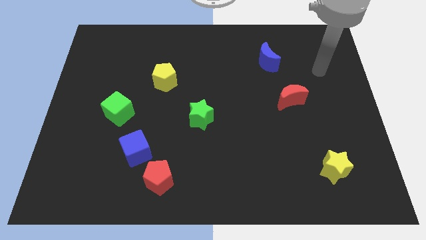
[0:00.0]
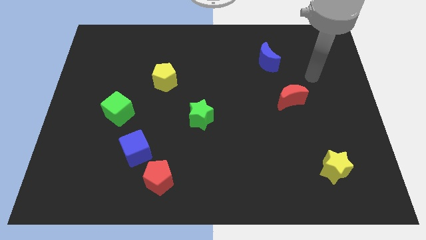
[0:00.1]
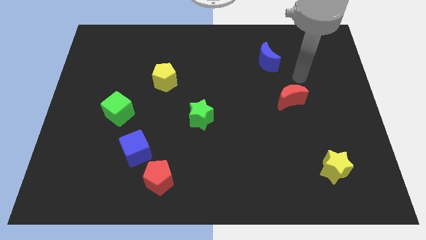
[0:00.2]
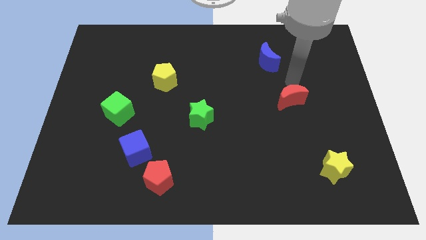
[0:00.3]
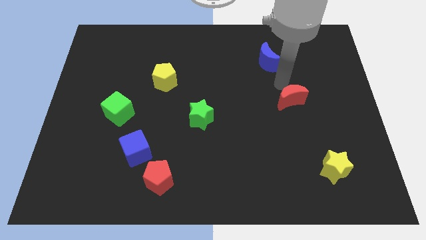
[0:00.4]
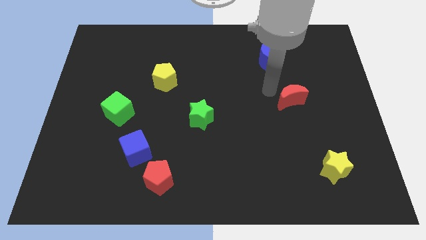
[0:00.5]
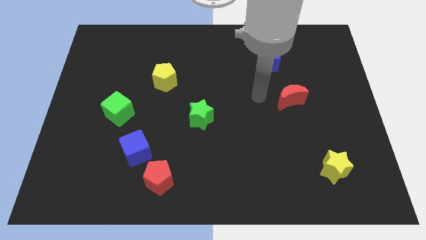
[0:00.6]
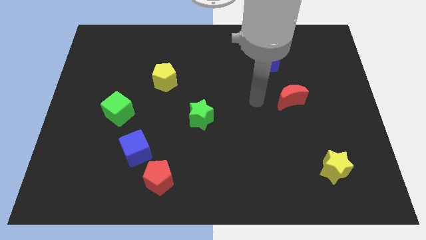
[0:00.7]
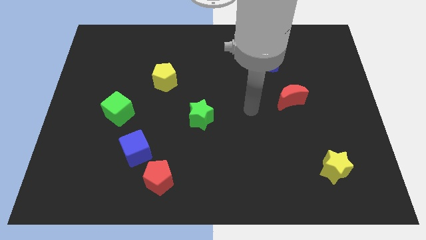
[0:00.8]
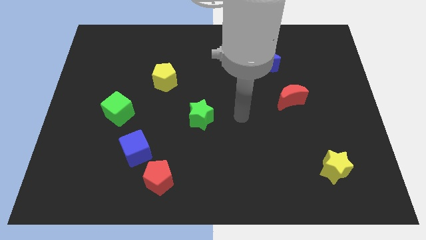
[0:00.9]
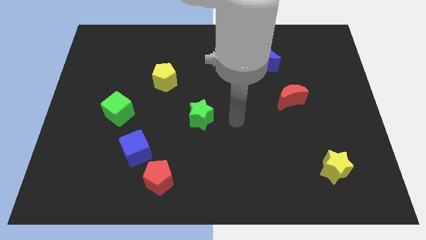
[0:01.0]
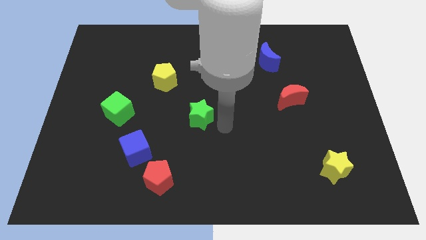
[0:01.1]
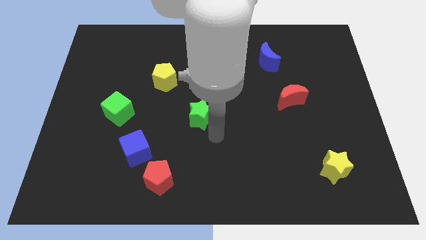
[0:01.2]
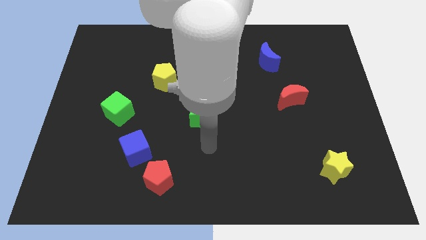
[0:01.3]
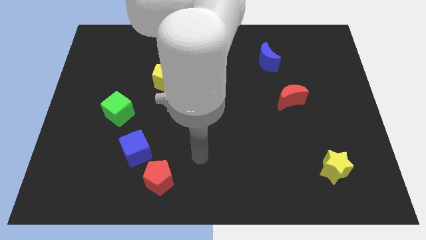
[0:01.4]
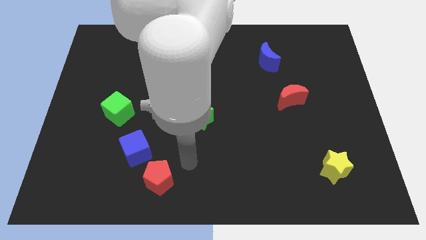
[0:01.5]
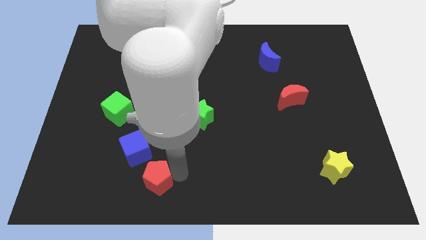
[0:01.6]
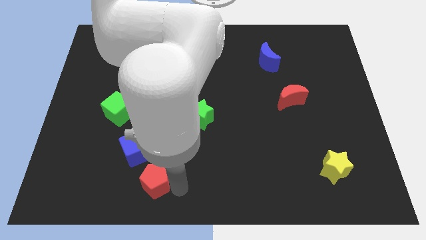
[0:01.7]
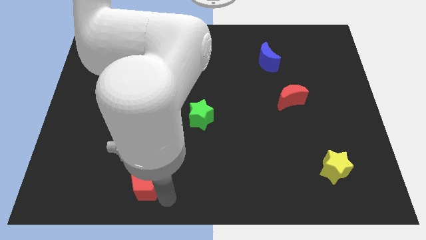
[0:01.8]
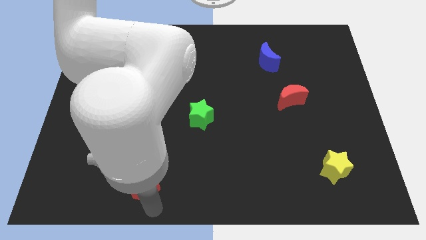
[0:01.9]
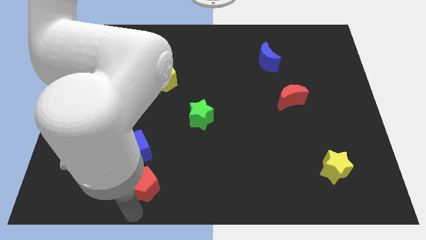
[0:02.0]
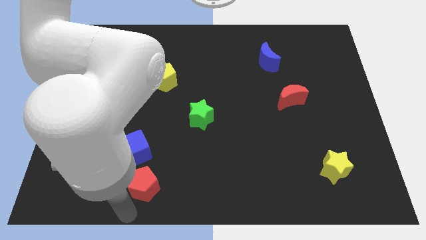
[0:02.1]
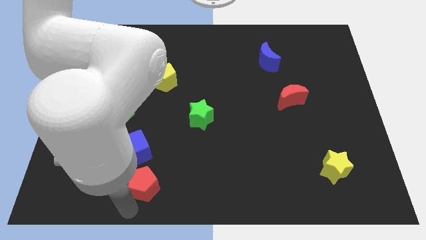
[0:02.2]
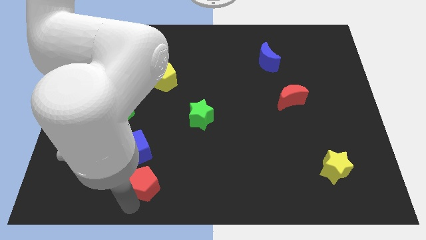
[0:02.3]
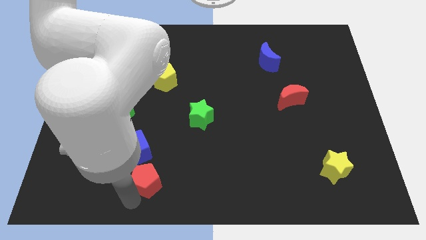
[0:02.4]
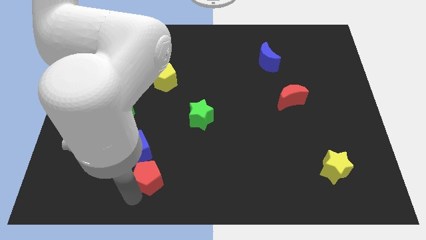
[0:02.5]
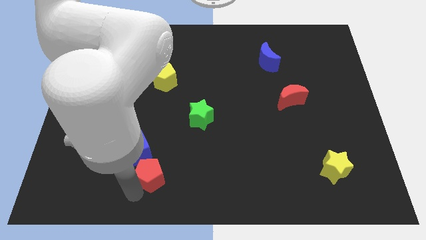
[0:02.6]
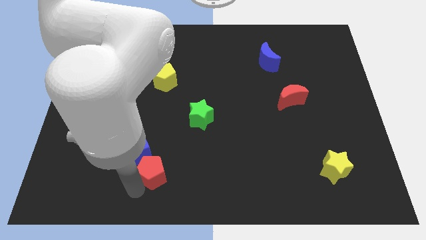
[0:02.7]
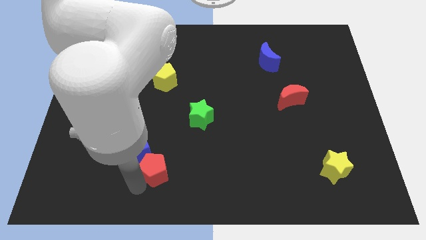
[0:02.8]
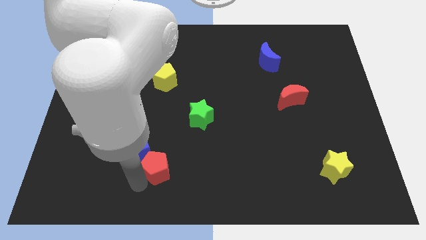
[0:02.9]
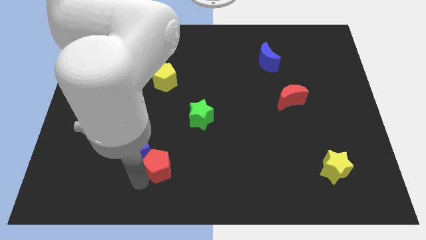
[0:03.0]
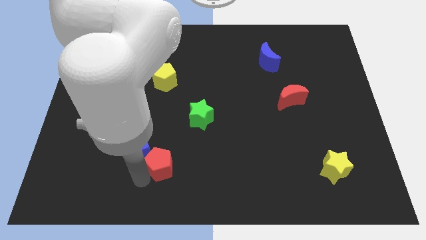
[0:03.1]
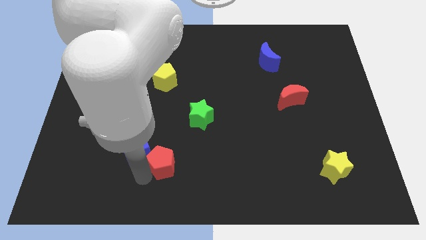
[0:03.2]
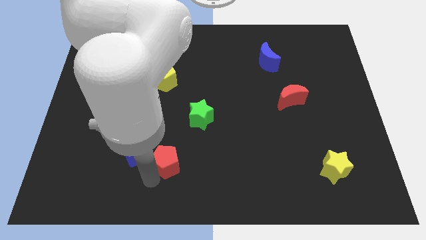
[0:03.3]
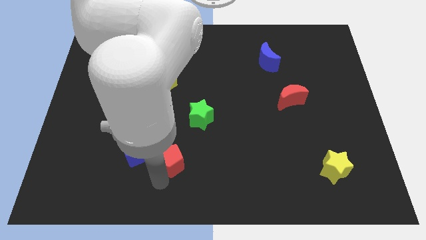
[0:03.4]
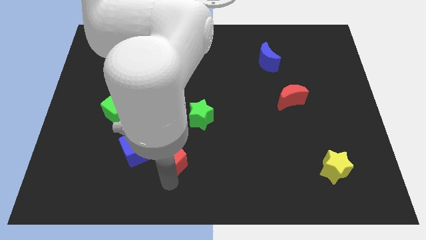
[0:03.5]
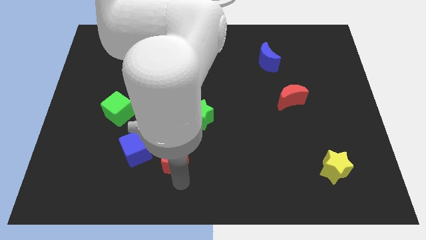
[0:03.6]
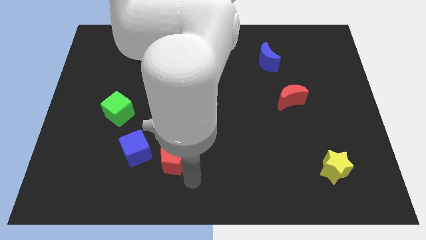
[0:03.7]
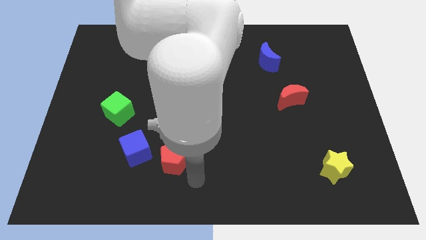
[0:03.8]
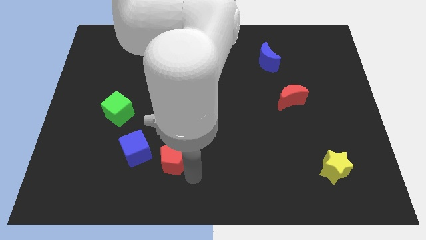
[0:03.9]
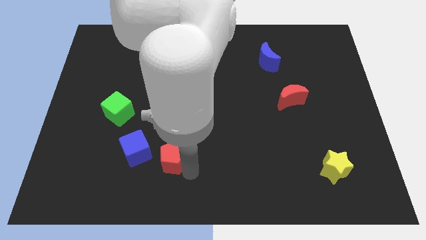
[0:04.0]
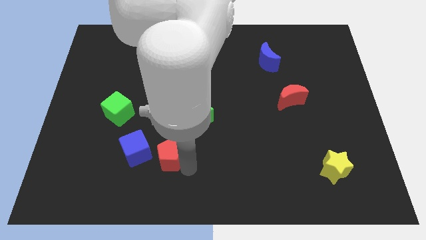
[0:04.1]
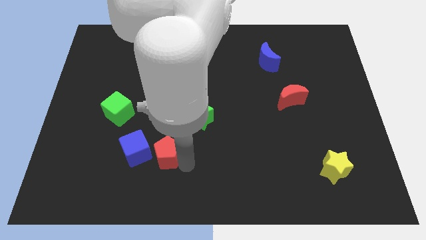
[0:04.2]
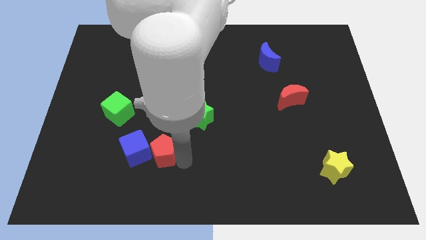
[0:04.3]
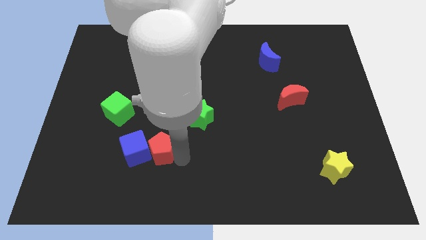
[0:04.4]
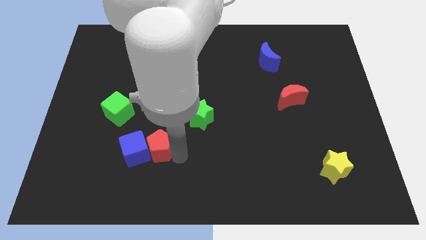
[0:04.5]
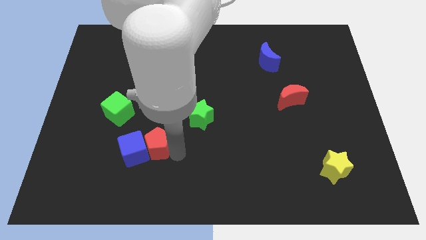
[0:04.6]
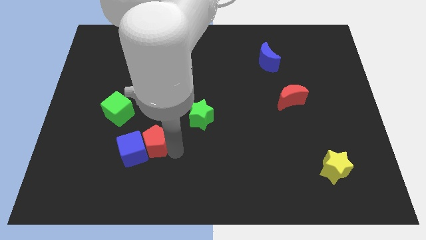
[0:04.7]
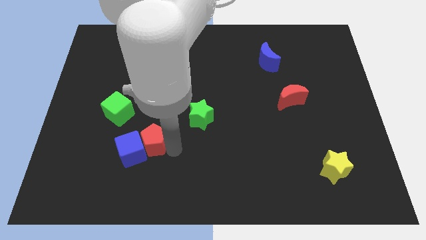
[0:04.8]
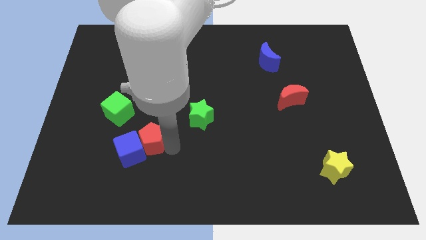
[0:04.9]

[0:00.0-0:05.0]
slightly slide the red pentagon upwards and left diagonally

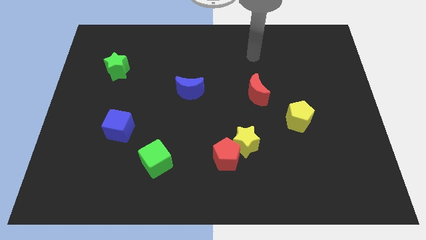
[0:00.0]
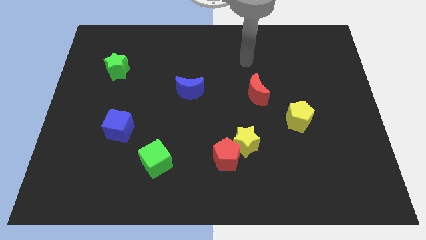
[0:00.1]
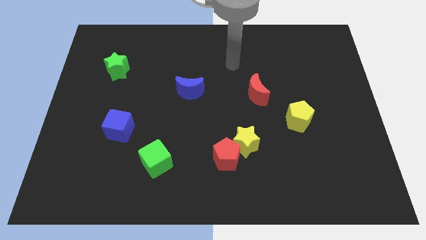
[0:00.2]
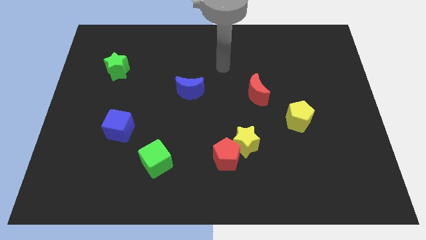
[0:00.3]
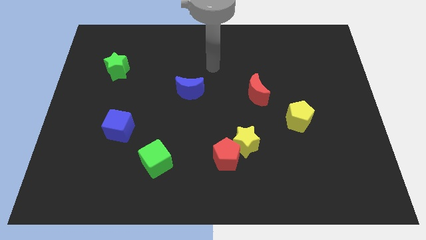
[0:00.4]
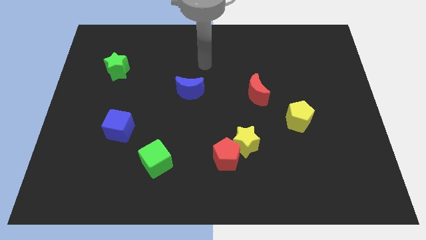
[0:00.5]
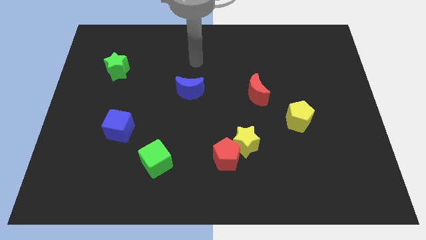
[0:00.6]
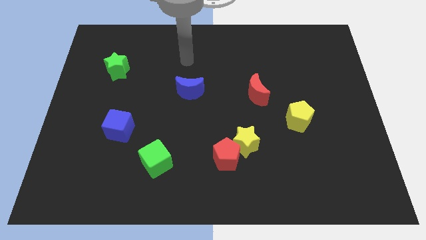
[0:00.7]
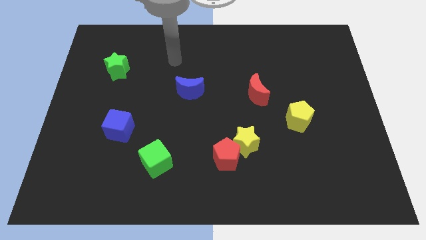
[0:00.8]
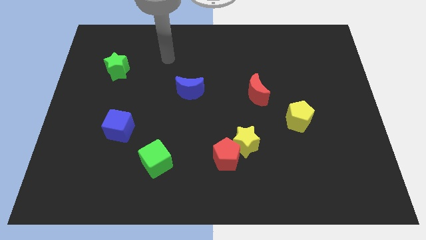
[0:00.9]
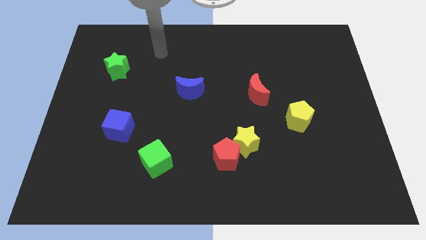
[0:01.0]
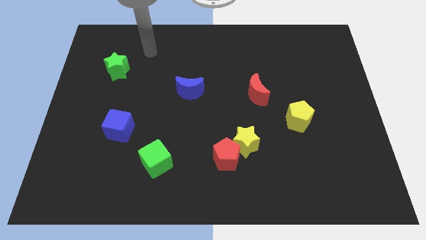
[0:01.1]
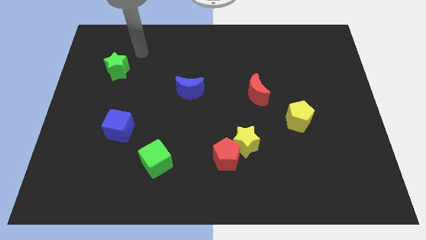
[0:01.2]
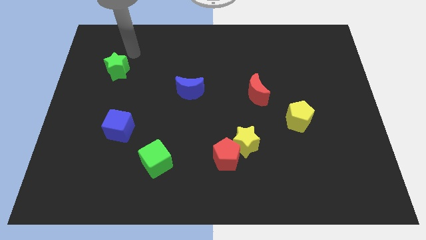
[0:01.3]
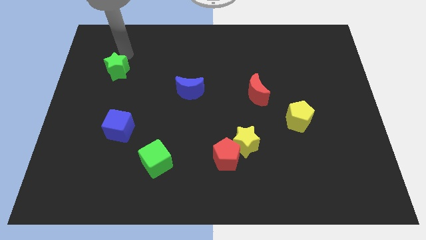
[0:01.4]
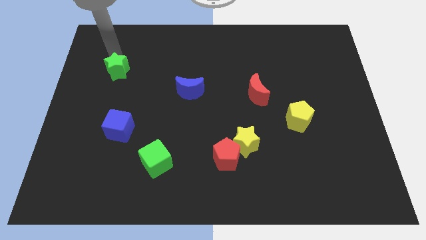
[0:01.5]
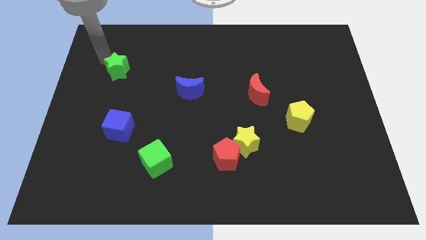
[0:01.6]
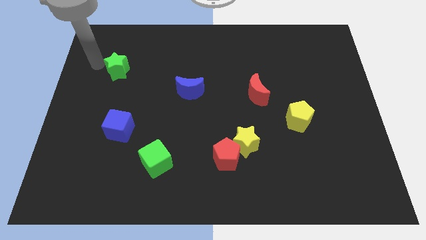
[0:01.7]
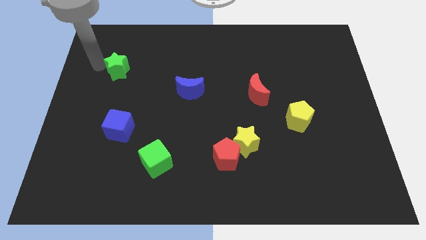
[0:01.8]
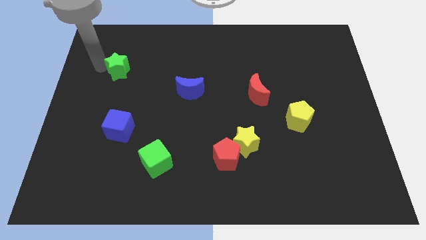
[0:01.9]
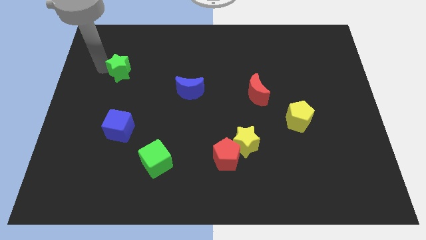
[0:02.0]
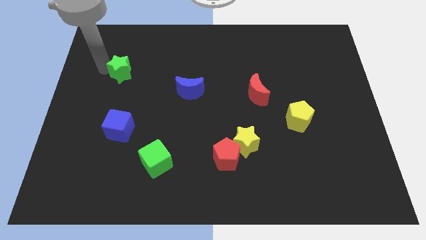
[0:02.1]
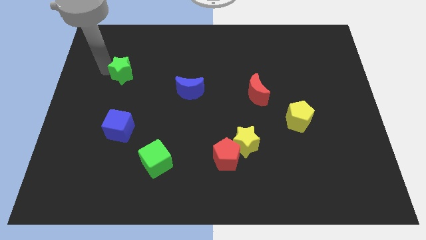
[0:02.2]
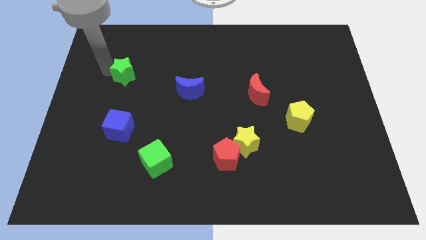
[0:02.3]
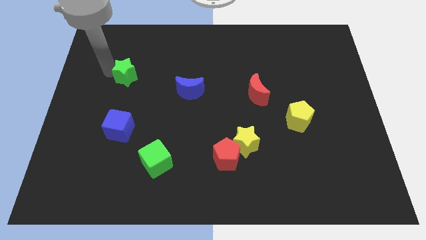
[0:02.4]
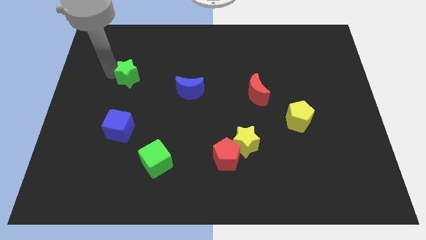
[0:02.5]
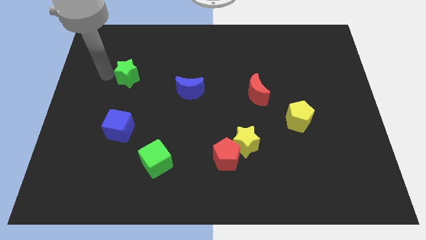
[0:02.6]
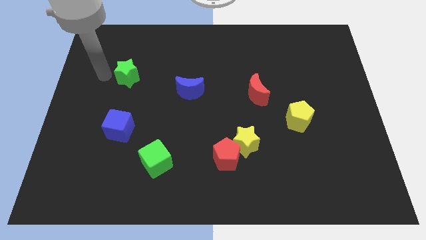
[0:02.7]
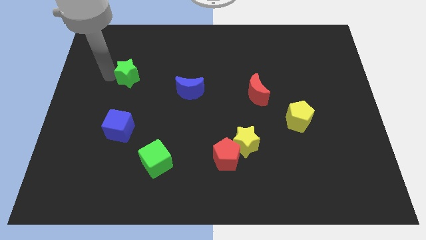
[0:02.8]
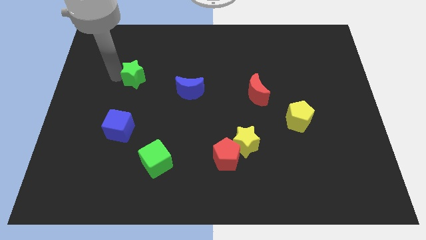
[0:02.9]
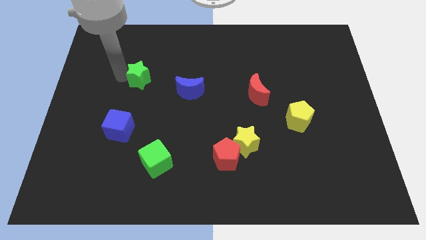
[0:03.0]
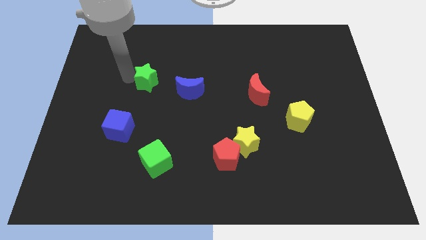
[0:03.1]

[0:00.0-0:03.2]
slightly slide the green star right
